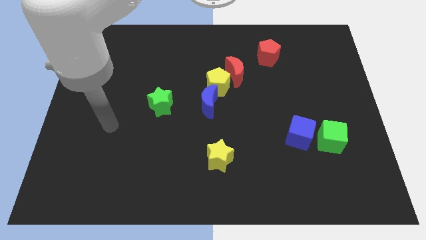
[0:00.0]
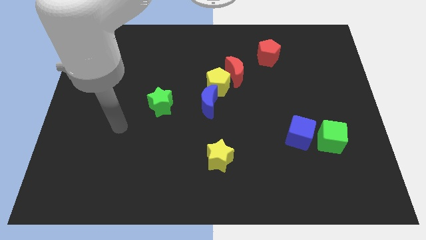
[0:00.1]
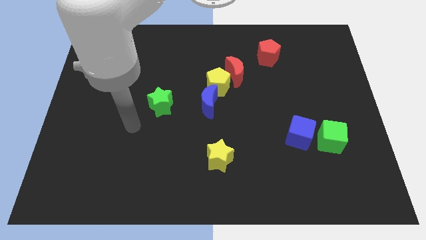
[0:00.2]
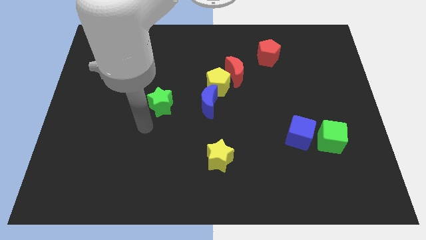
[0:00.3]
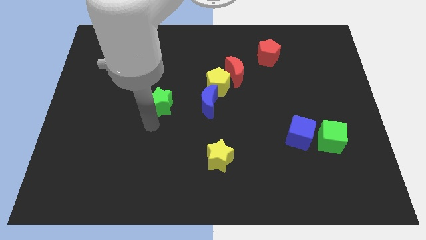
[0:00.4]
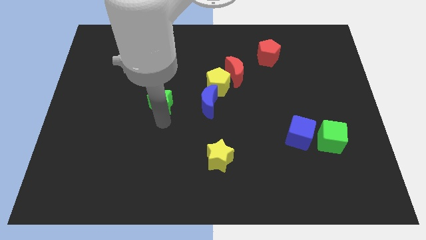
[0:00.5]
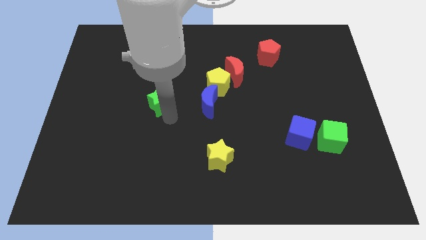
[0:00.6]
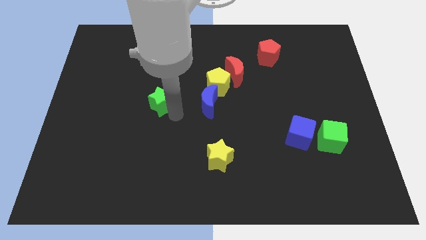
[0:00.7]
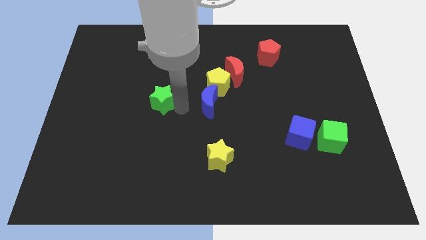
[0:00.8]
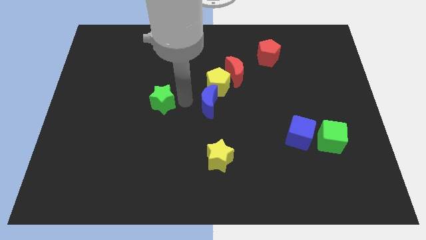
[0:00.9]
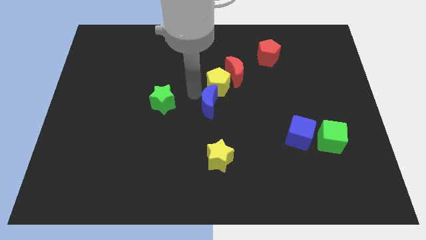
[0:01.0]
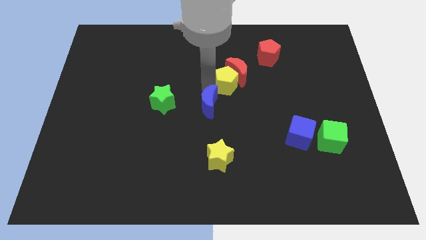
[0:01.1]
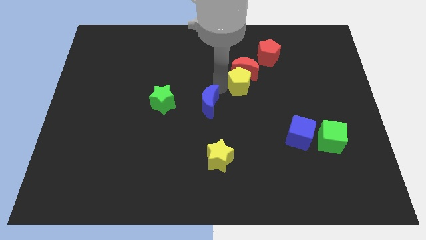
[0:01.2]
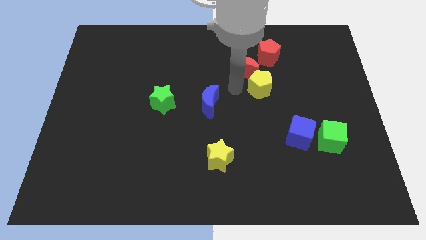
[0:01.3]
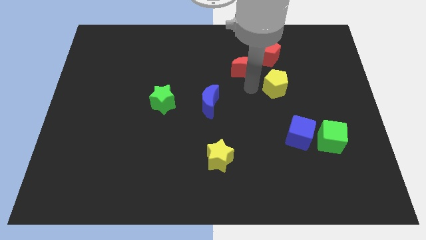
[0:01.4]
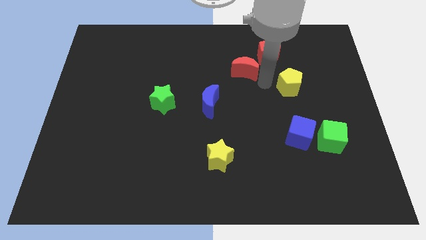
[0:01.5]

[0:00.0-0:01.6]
pull the red moon apart from the yellow pentagon

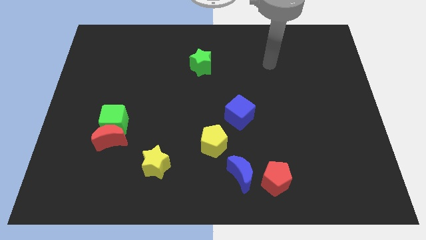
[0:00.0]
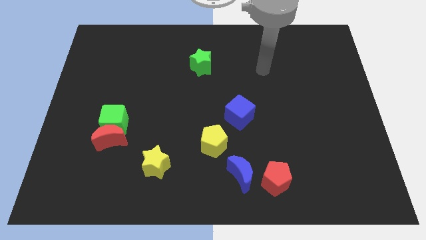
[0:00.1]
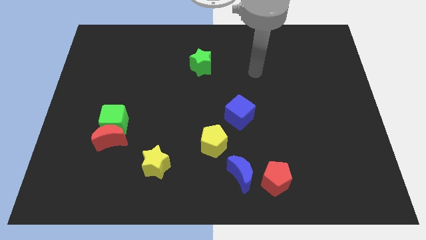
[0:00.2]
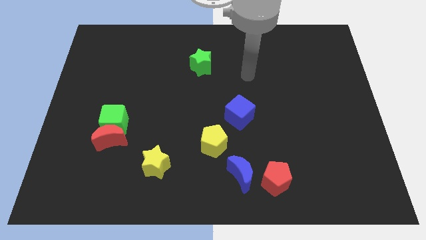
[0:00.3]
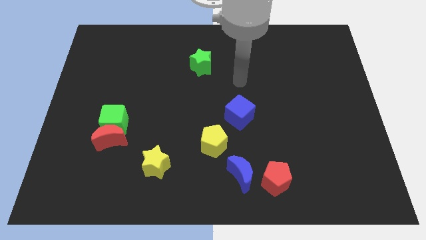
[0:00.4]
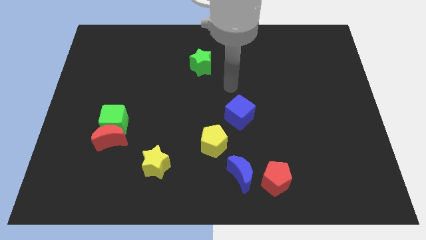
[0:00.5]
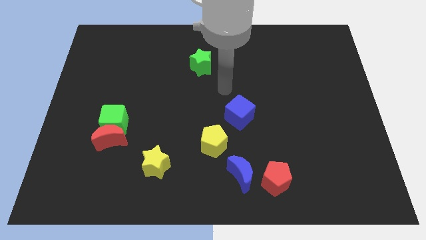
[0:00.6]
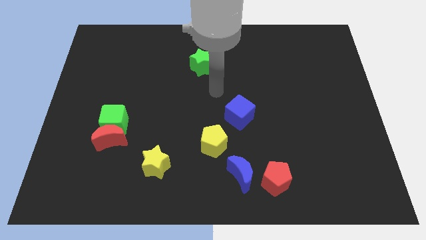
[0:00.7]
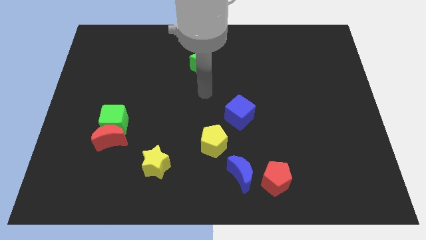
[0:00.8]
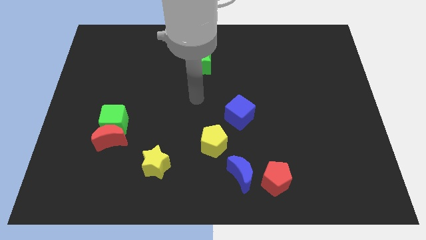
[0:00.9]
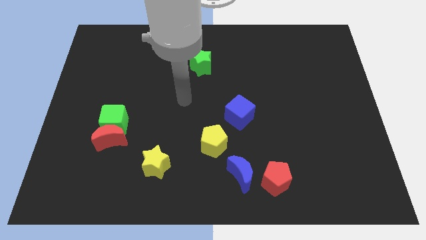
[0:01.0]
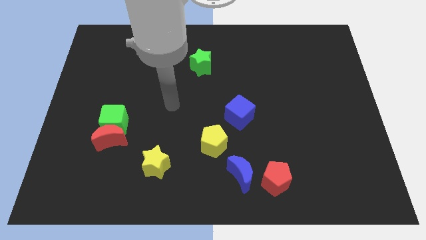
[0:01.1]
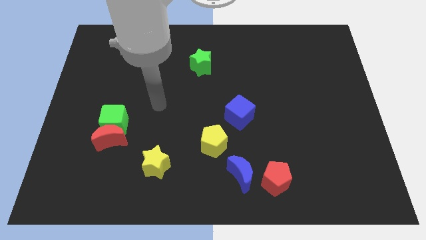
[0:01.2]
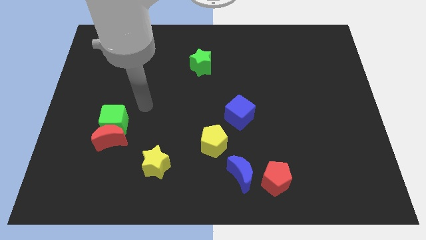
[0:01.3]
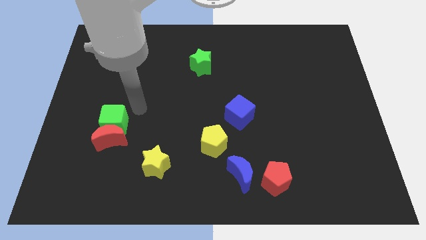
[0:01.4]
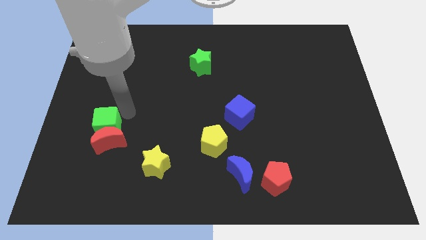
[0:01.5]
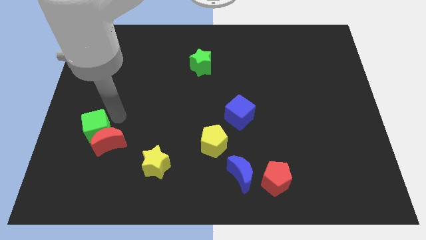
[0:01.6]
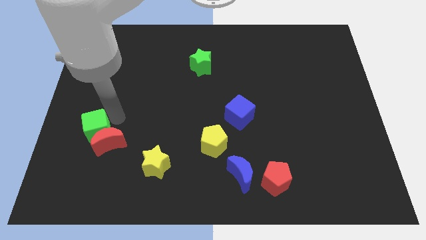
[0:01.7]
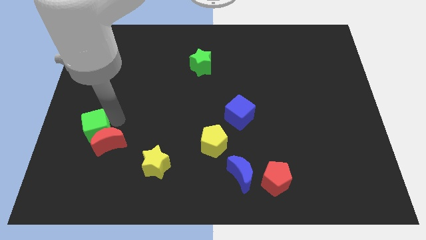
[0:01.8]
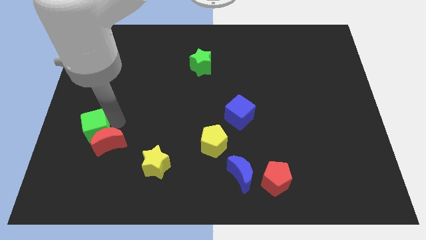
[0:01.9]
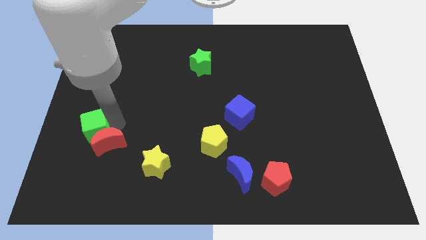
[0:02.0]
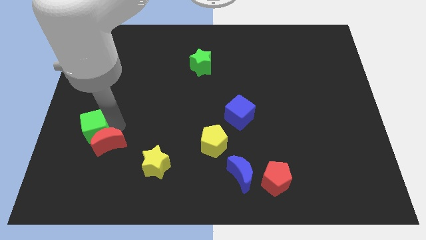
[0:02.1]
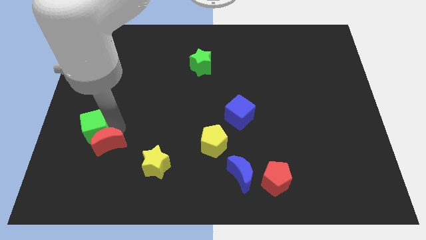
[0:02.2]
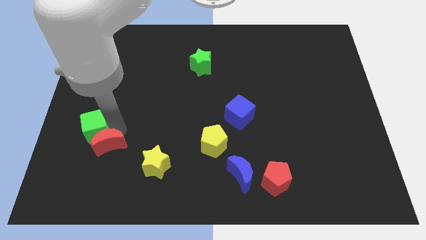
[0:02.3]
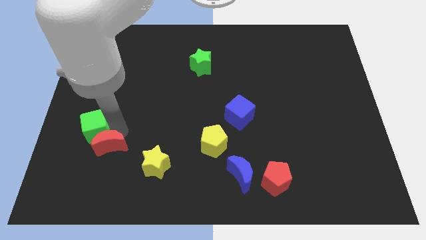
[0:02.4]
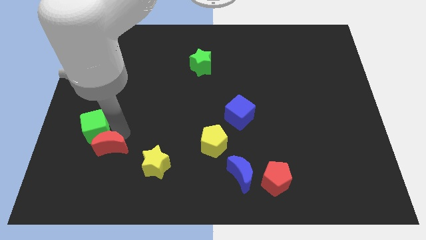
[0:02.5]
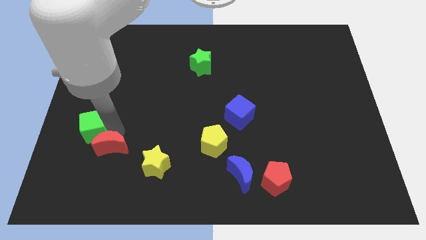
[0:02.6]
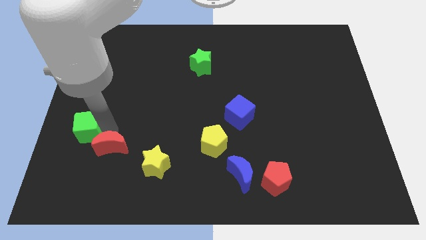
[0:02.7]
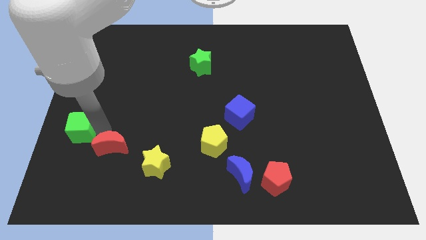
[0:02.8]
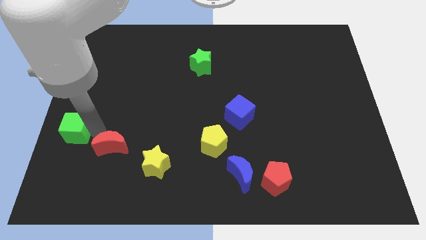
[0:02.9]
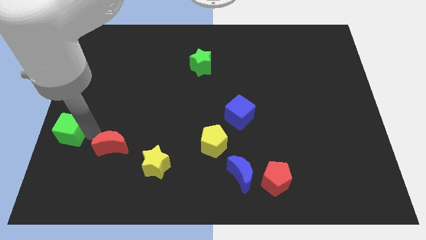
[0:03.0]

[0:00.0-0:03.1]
separate the red moon from the green cube

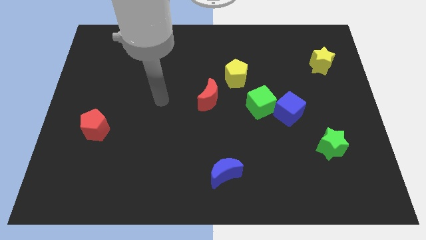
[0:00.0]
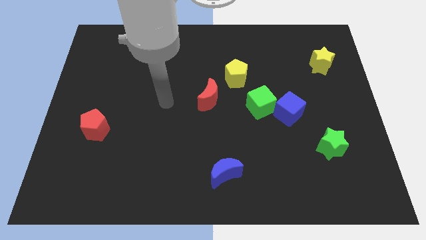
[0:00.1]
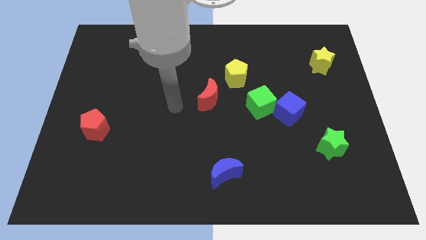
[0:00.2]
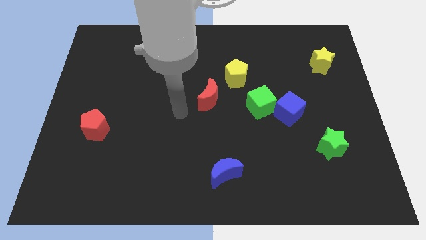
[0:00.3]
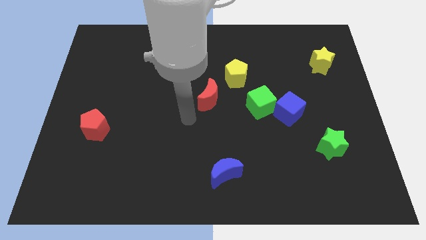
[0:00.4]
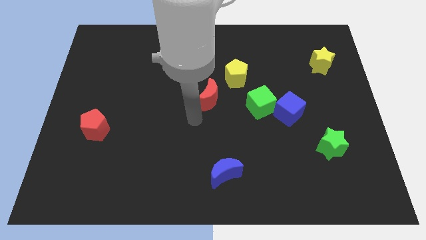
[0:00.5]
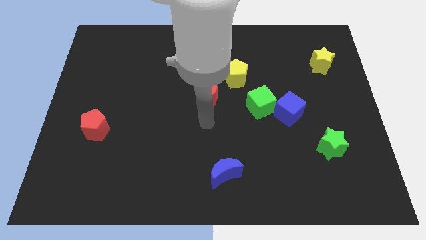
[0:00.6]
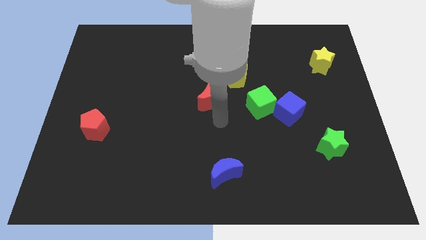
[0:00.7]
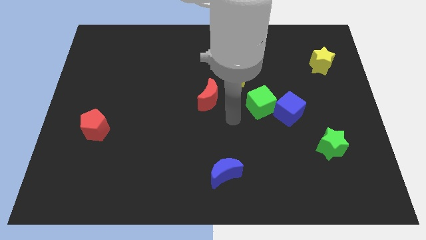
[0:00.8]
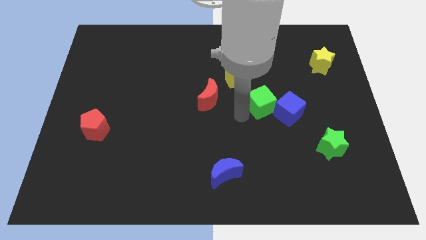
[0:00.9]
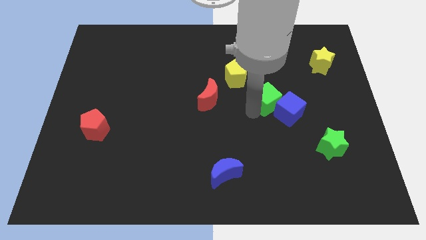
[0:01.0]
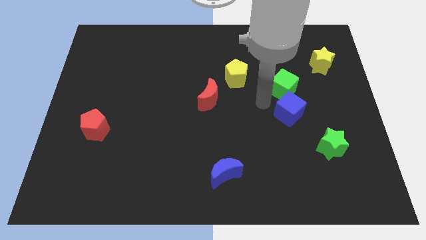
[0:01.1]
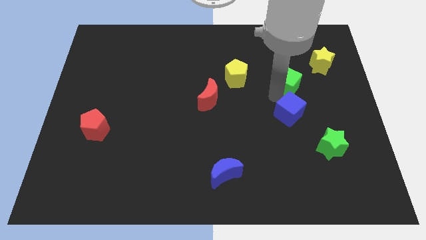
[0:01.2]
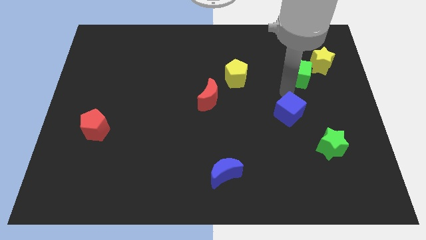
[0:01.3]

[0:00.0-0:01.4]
move the blue cube away from the green cube

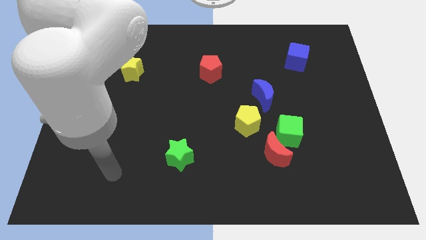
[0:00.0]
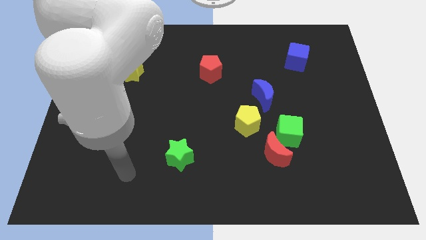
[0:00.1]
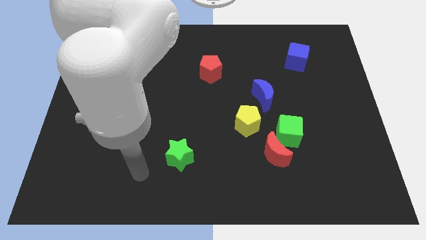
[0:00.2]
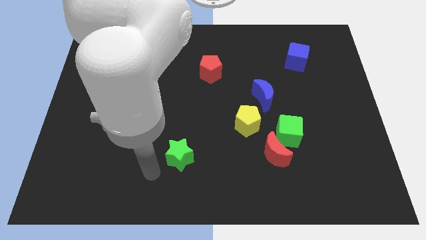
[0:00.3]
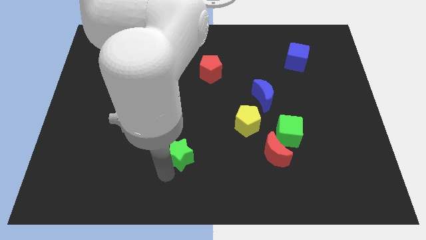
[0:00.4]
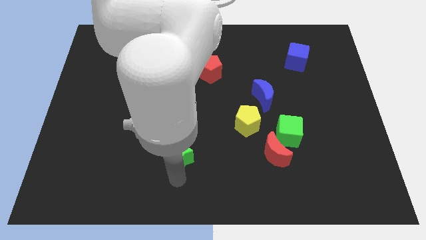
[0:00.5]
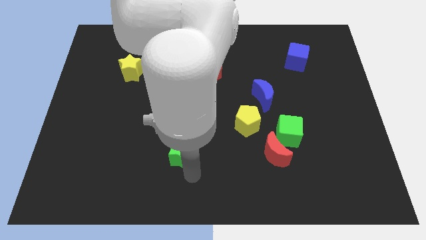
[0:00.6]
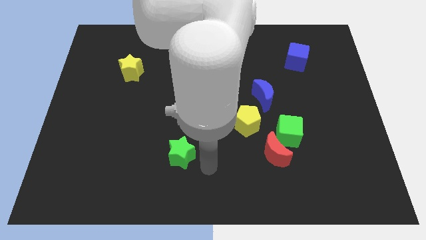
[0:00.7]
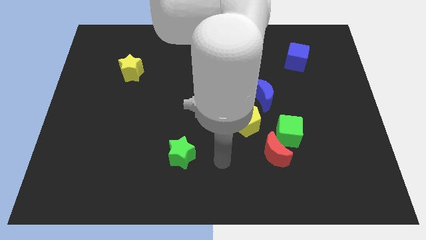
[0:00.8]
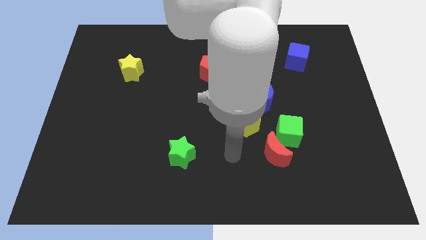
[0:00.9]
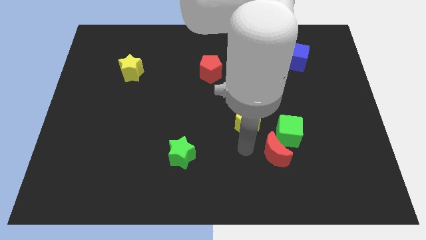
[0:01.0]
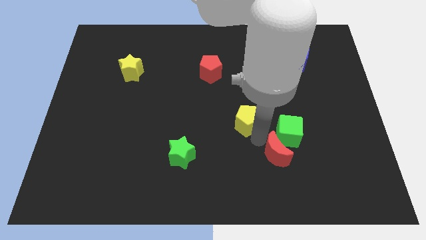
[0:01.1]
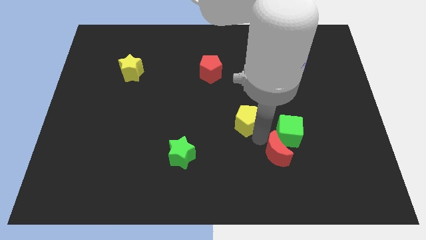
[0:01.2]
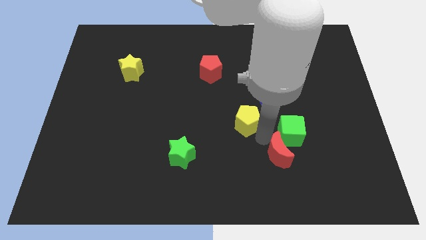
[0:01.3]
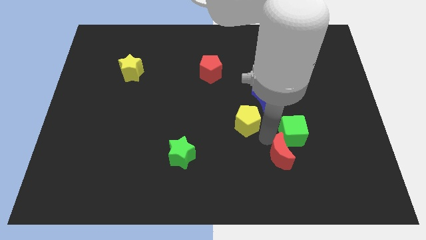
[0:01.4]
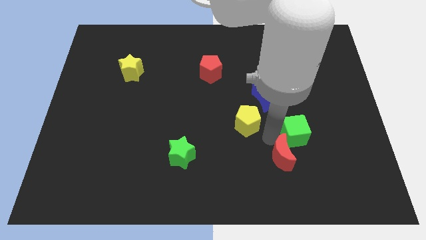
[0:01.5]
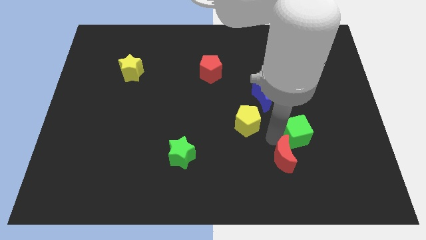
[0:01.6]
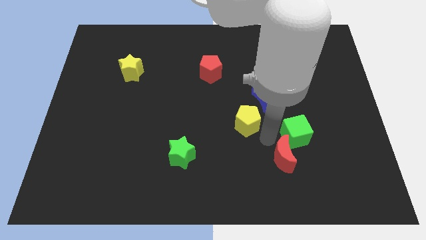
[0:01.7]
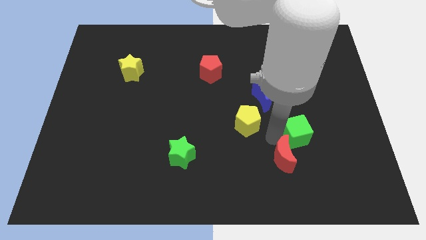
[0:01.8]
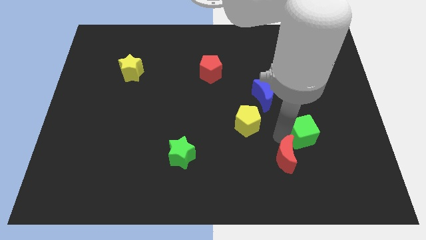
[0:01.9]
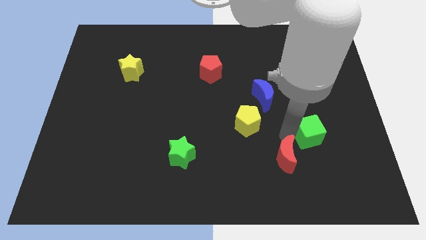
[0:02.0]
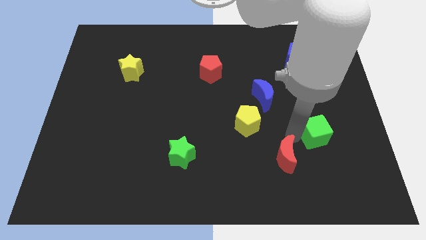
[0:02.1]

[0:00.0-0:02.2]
separate the green cube from the red moon and yellow pentagon

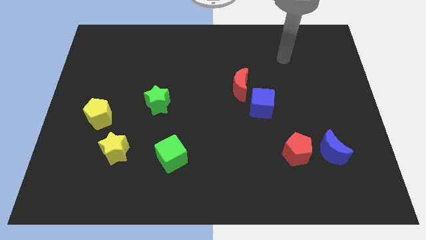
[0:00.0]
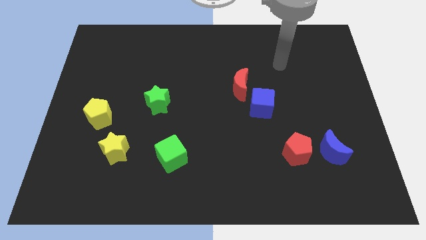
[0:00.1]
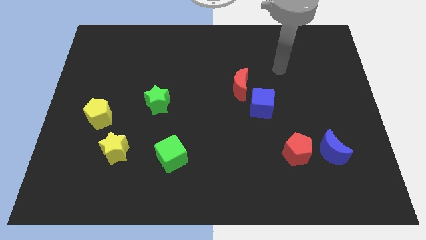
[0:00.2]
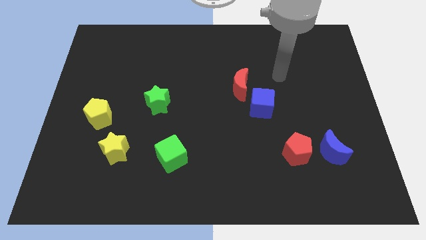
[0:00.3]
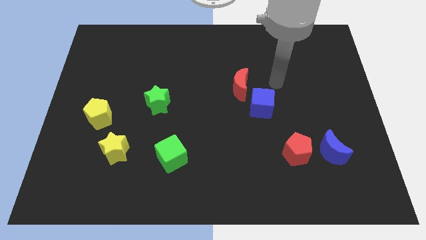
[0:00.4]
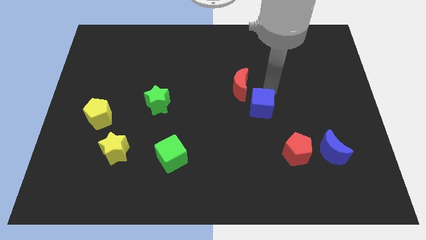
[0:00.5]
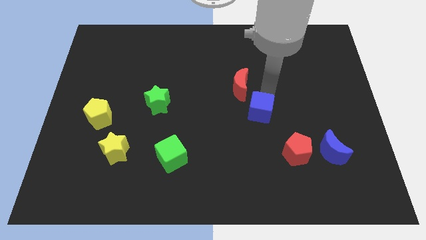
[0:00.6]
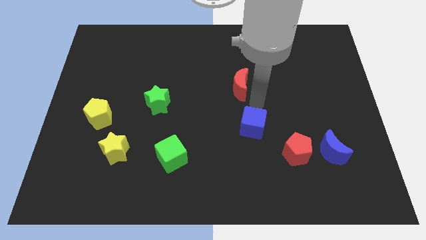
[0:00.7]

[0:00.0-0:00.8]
pull the red moon apart from the blue cube

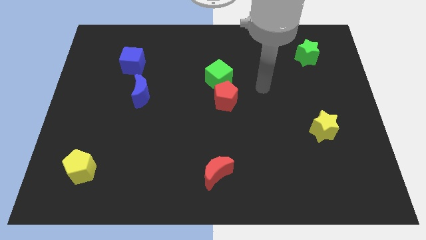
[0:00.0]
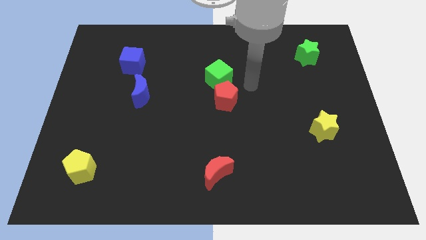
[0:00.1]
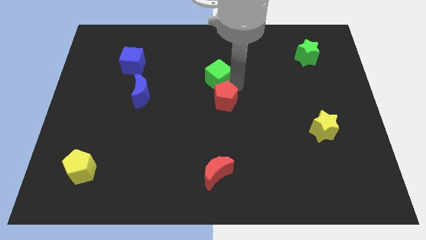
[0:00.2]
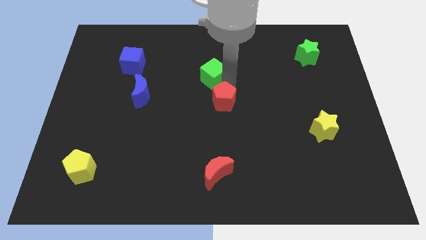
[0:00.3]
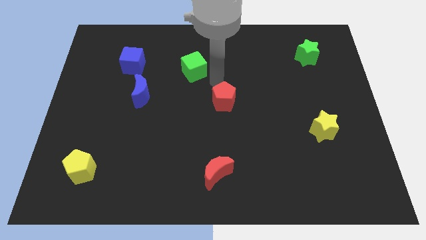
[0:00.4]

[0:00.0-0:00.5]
pull the red pentagon apart from the green cube
